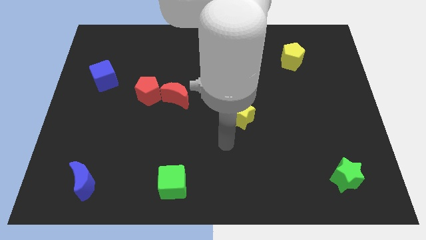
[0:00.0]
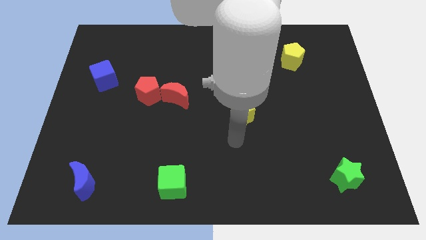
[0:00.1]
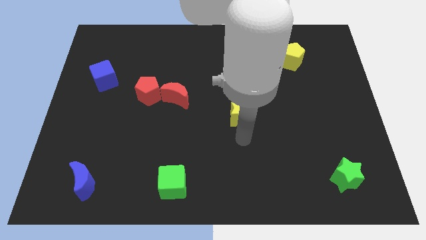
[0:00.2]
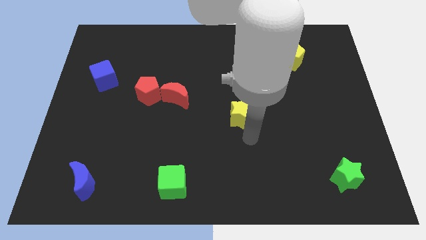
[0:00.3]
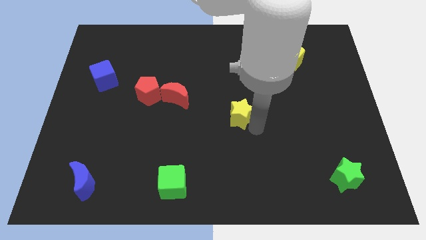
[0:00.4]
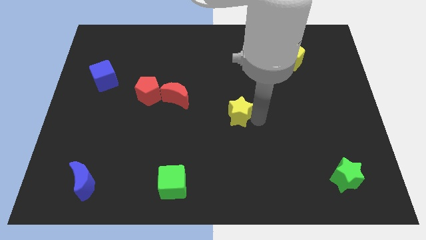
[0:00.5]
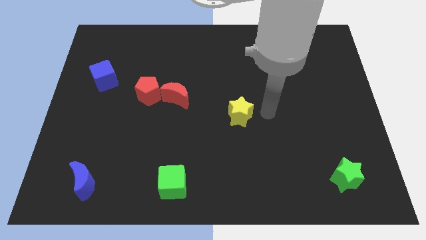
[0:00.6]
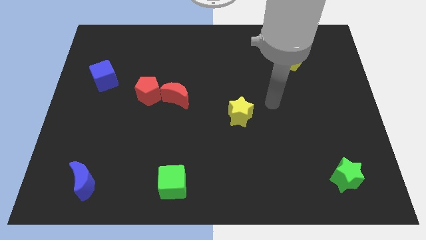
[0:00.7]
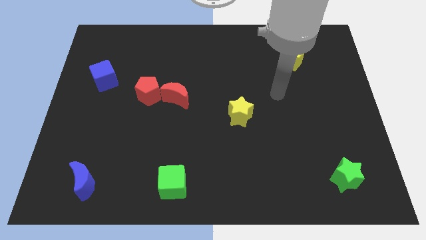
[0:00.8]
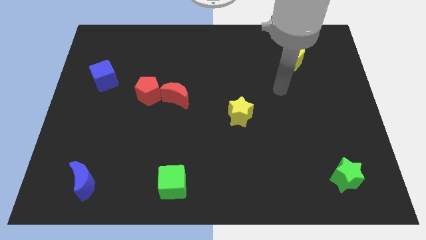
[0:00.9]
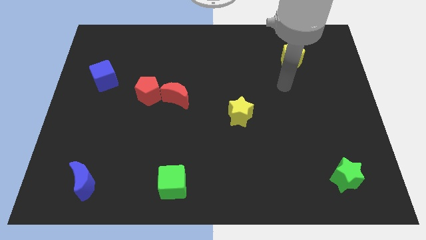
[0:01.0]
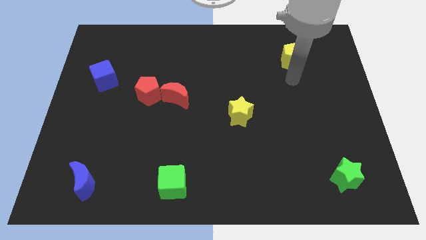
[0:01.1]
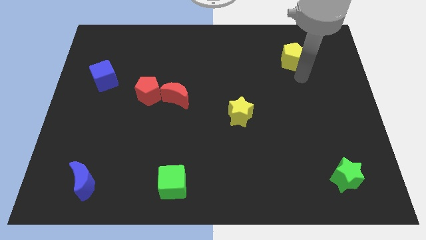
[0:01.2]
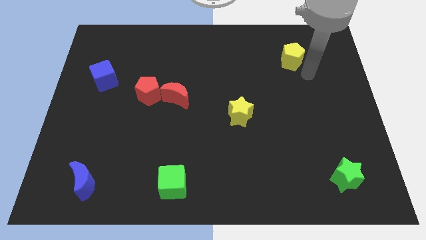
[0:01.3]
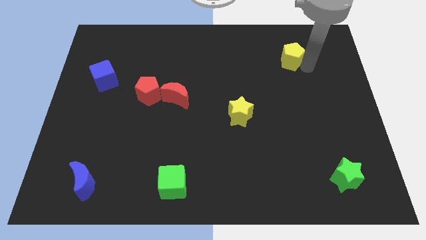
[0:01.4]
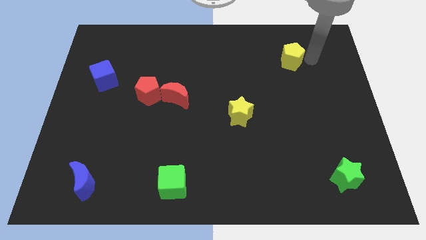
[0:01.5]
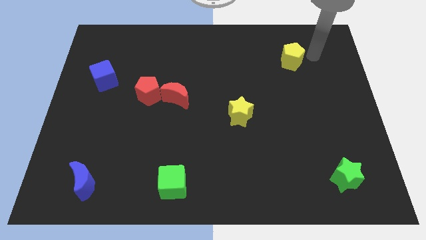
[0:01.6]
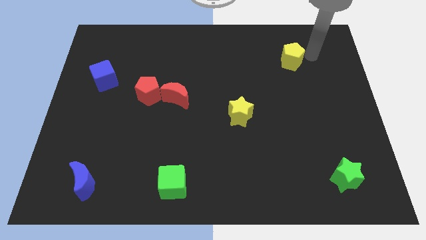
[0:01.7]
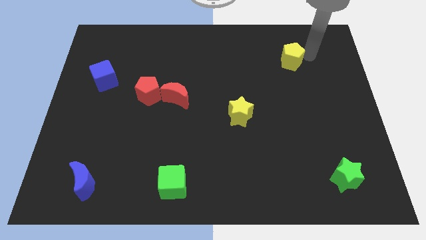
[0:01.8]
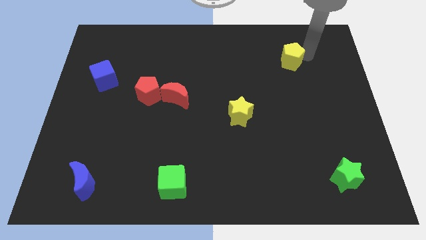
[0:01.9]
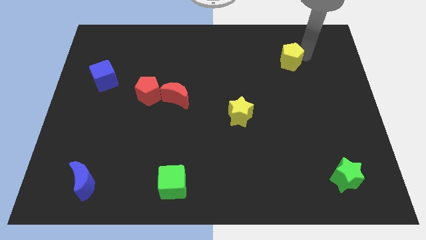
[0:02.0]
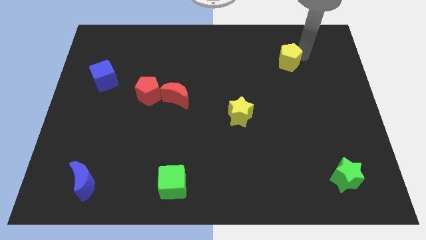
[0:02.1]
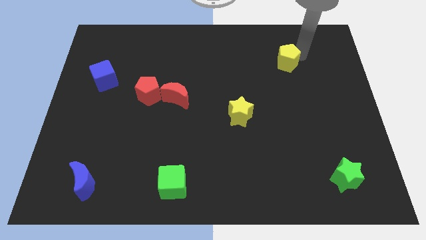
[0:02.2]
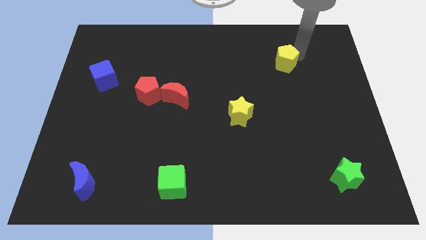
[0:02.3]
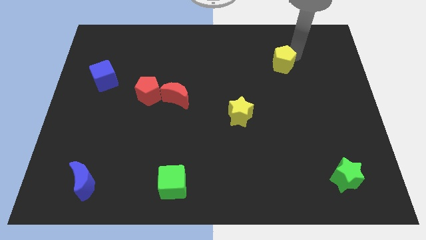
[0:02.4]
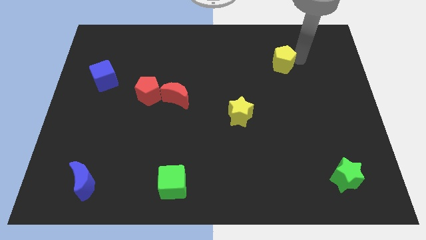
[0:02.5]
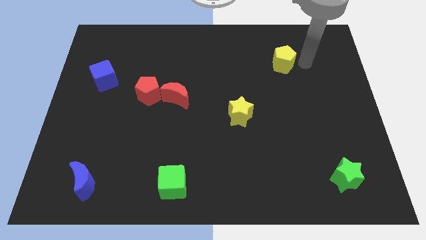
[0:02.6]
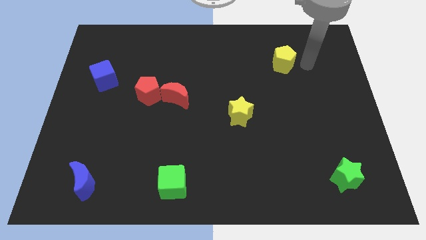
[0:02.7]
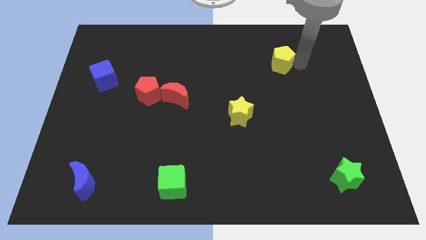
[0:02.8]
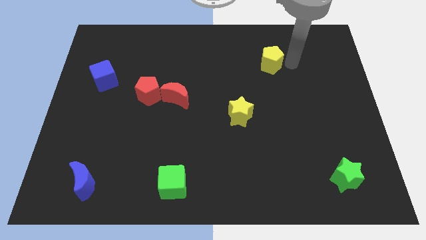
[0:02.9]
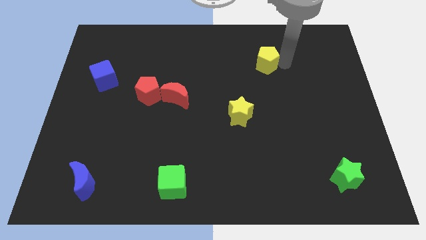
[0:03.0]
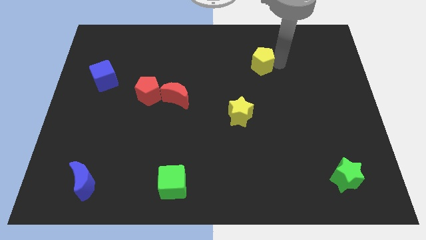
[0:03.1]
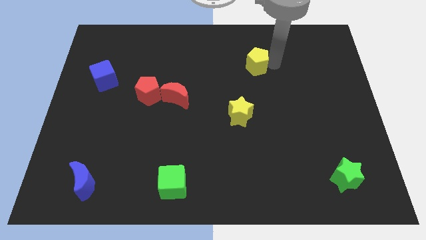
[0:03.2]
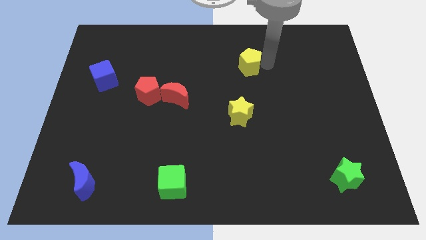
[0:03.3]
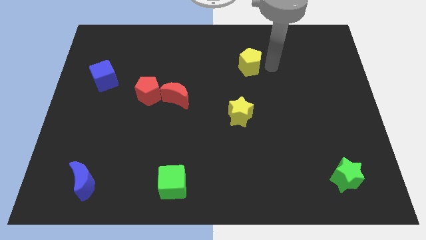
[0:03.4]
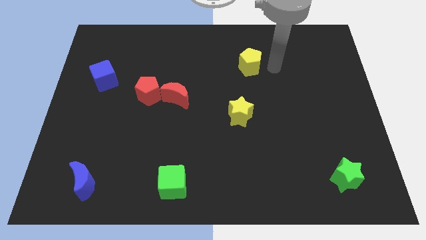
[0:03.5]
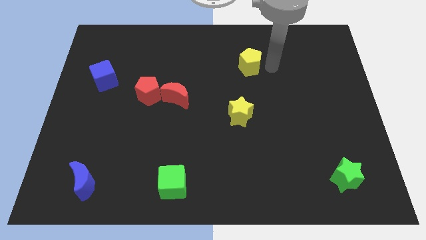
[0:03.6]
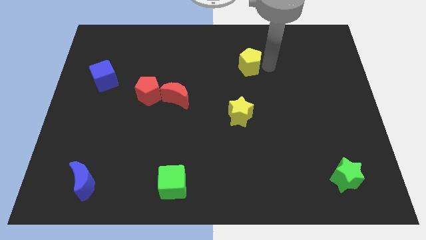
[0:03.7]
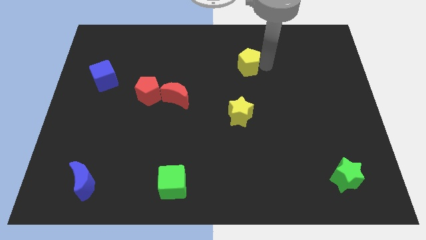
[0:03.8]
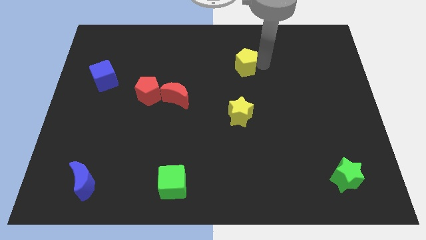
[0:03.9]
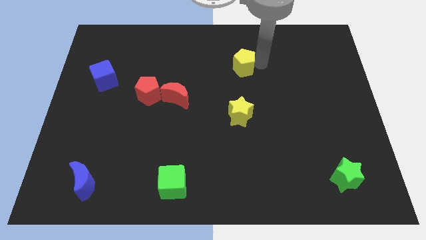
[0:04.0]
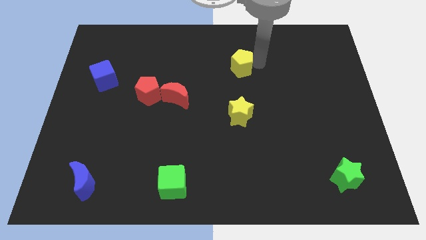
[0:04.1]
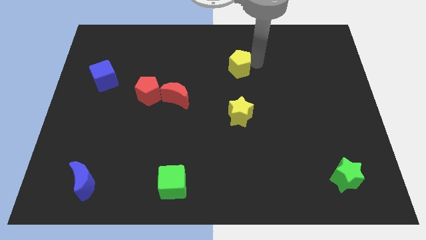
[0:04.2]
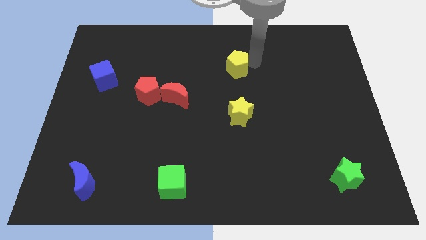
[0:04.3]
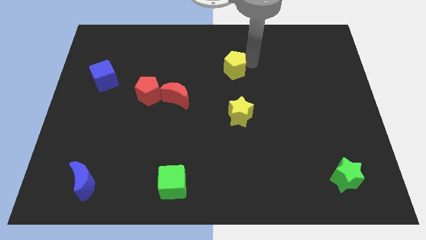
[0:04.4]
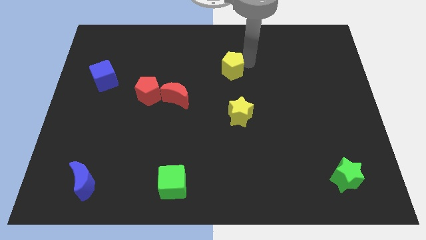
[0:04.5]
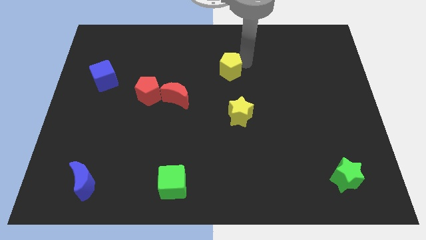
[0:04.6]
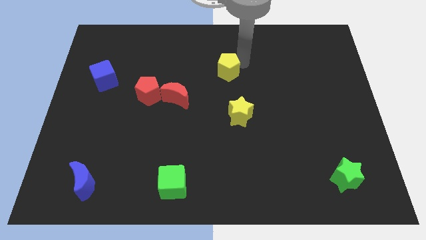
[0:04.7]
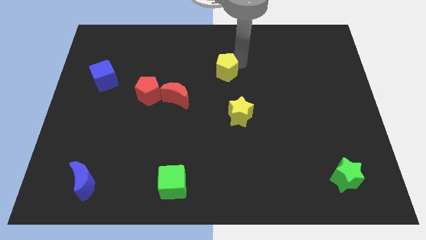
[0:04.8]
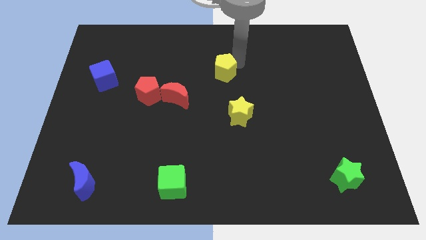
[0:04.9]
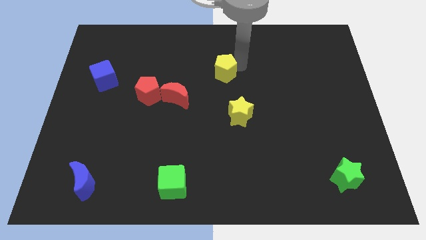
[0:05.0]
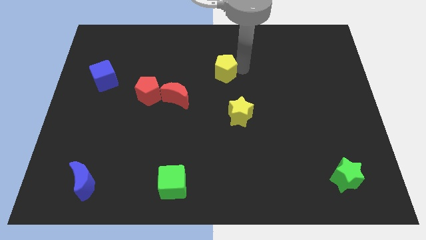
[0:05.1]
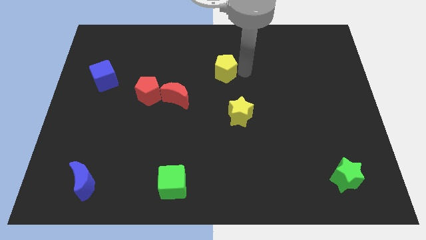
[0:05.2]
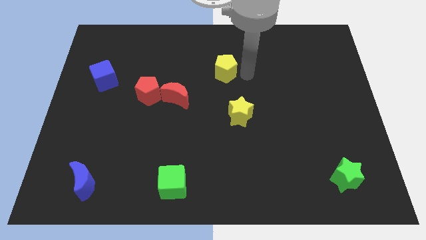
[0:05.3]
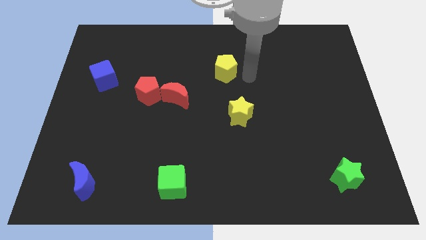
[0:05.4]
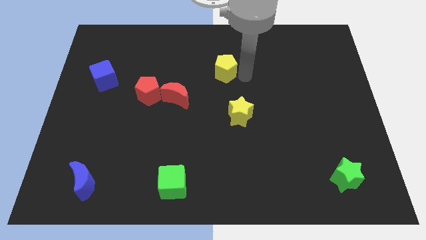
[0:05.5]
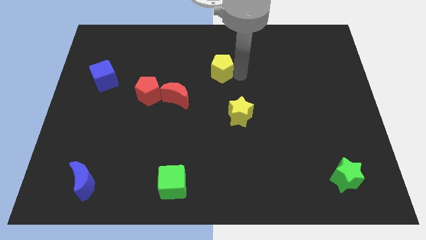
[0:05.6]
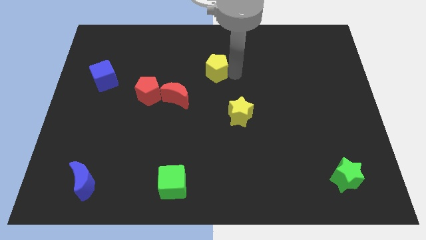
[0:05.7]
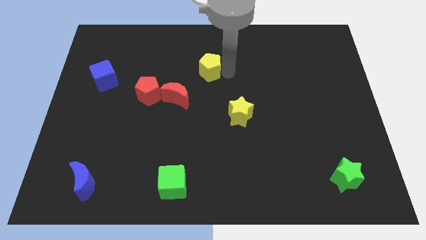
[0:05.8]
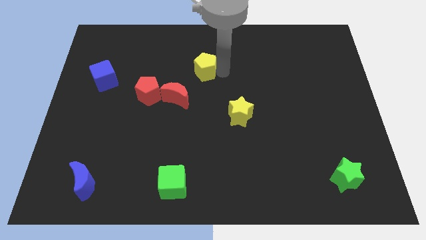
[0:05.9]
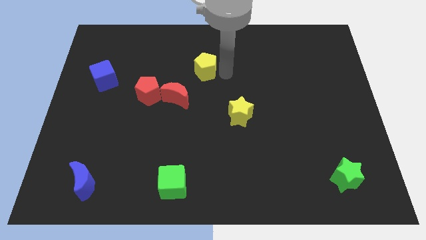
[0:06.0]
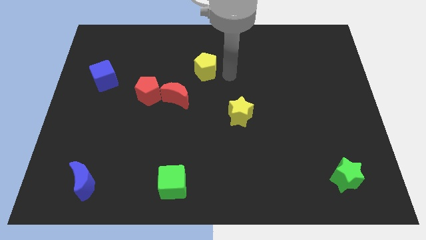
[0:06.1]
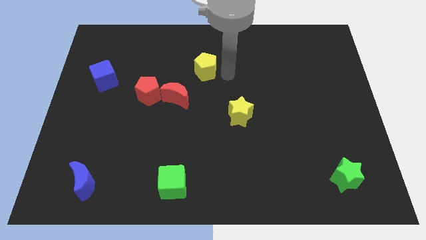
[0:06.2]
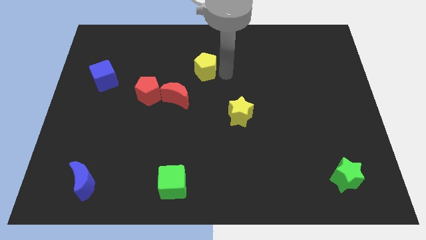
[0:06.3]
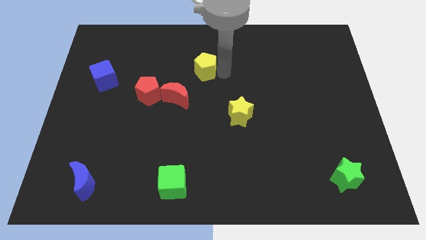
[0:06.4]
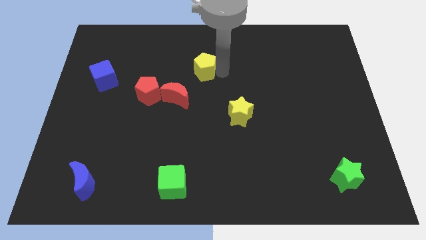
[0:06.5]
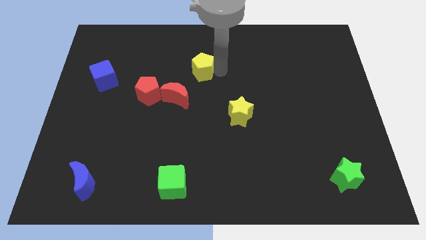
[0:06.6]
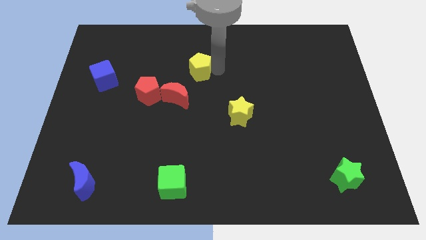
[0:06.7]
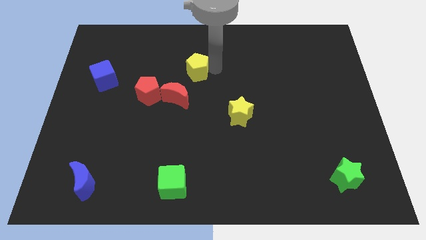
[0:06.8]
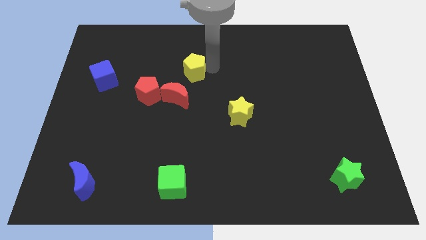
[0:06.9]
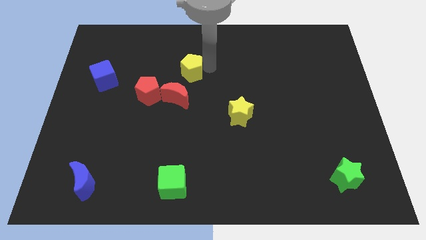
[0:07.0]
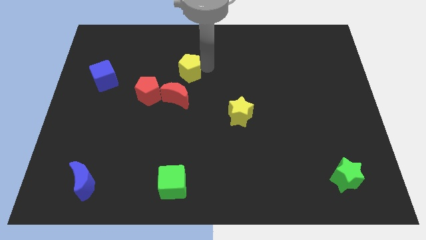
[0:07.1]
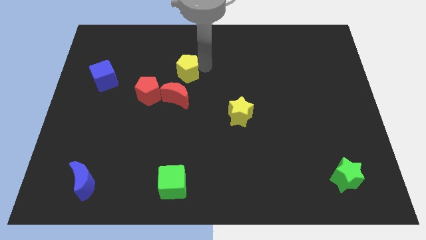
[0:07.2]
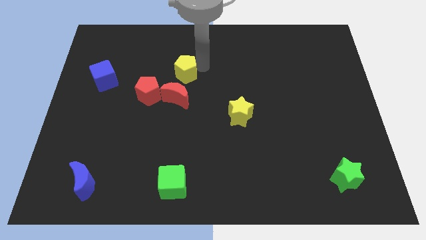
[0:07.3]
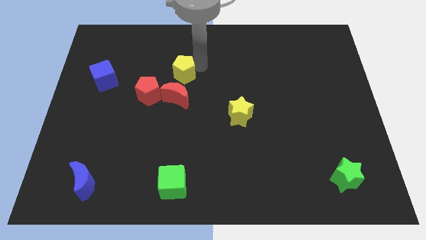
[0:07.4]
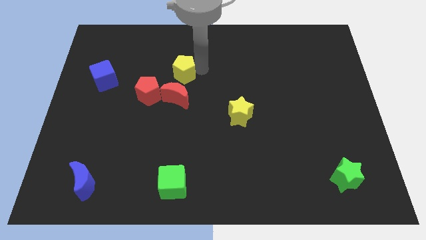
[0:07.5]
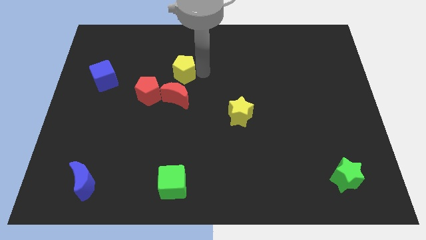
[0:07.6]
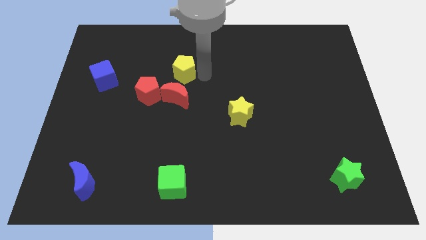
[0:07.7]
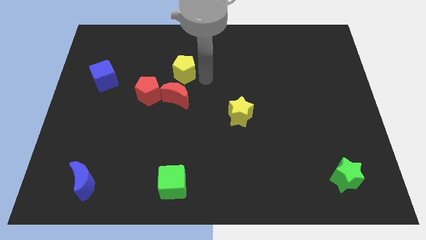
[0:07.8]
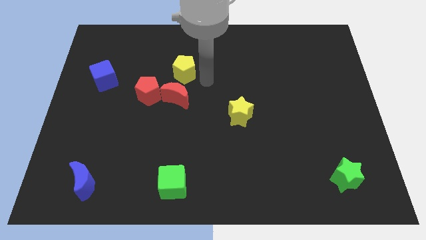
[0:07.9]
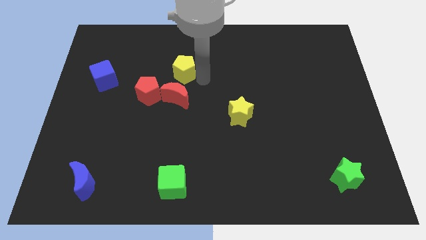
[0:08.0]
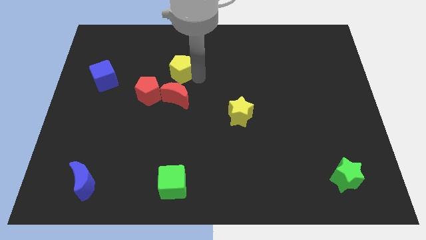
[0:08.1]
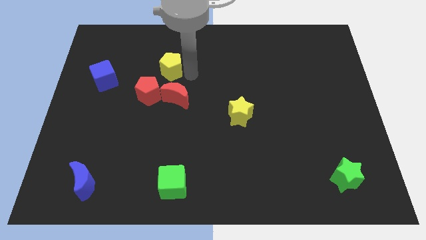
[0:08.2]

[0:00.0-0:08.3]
move the yellow pentagon above the red pentagon
